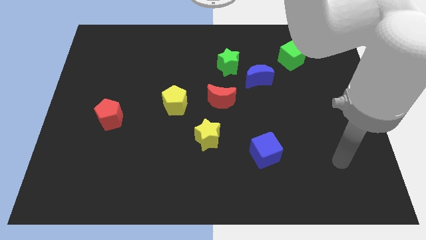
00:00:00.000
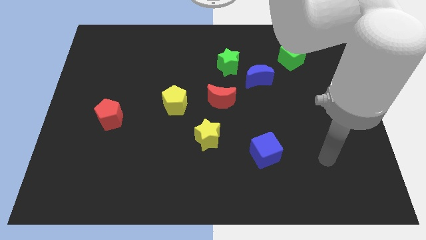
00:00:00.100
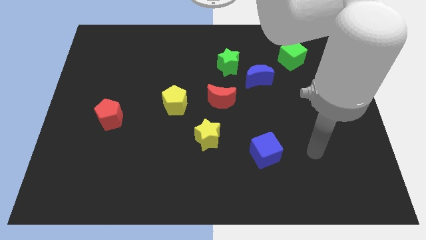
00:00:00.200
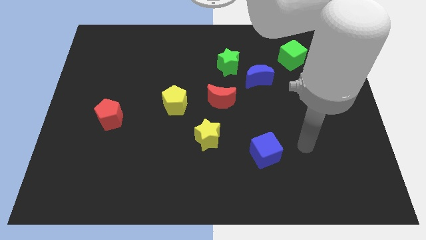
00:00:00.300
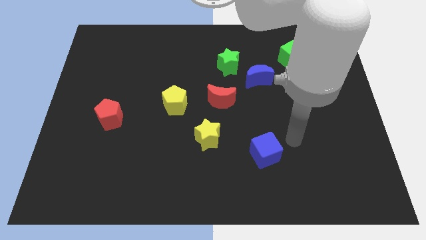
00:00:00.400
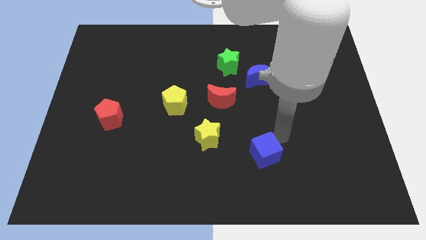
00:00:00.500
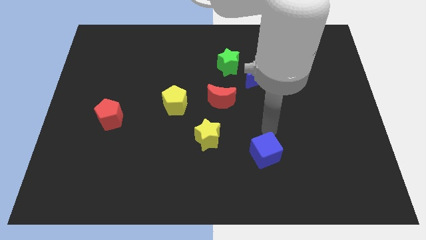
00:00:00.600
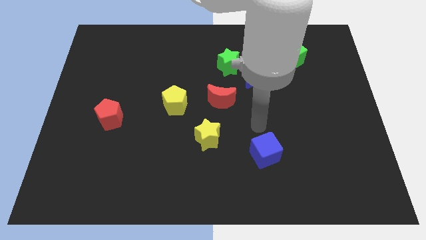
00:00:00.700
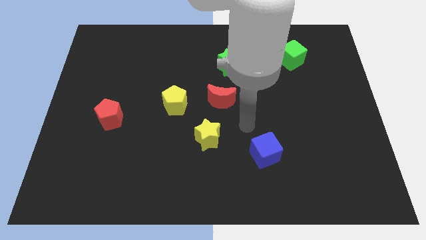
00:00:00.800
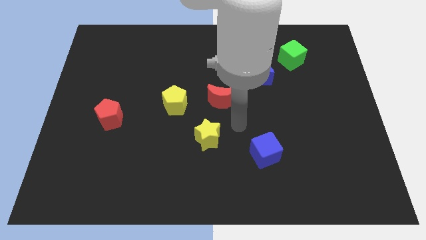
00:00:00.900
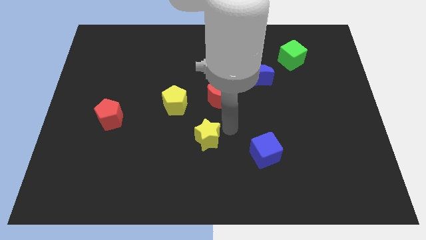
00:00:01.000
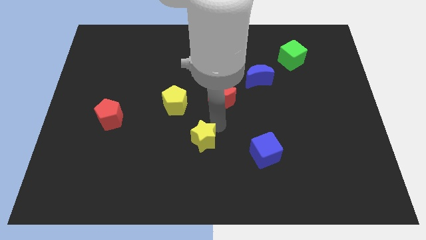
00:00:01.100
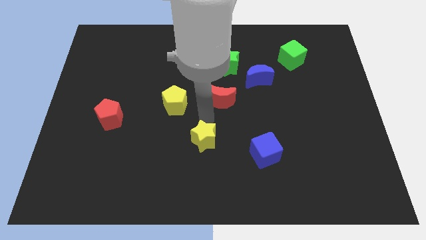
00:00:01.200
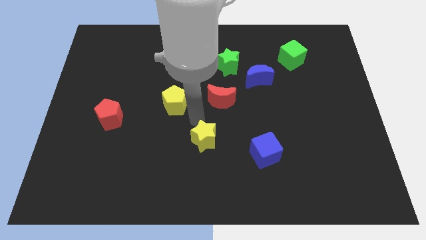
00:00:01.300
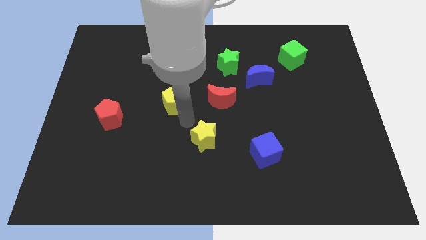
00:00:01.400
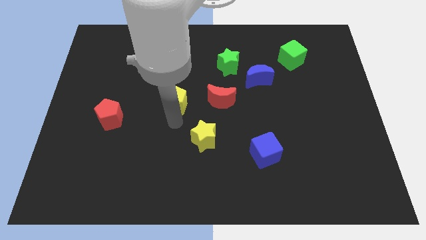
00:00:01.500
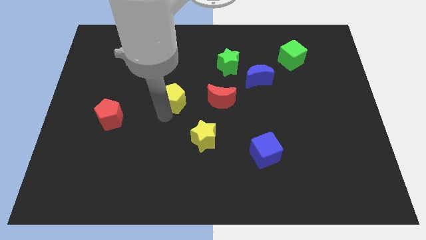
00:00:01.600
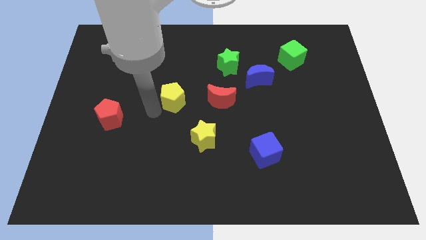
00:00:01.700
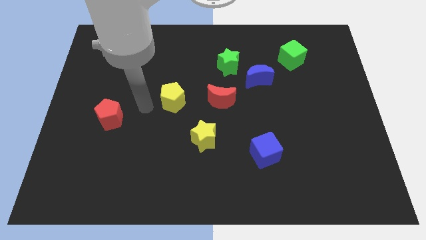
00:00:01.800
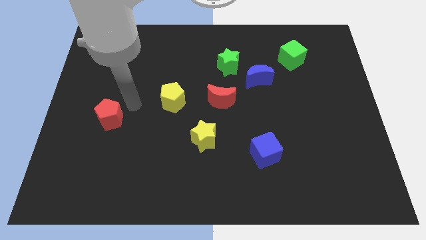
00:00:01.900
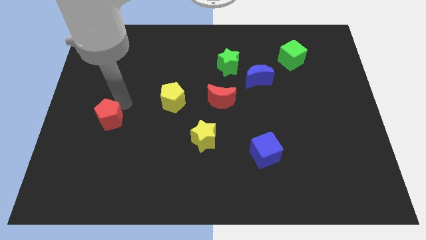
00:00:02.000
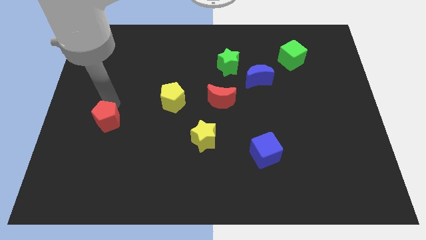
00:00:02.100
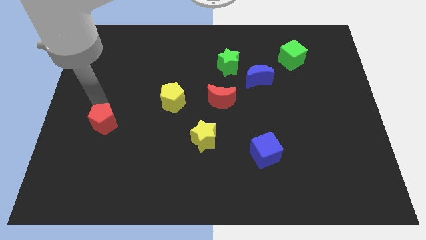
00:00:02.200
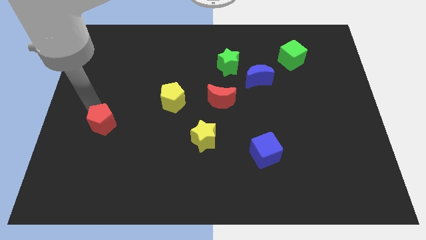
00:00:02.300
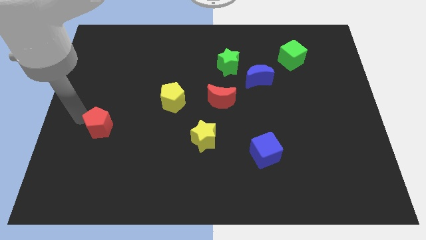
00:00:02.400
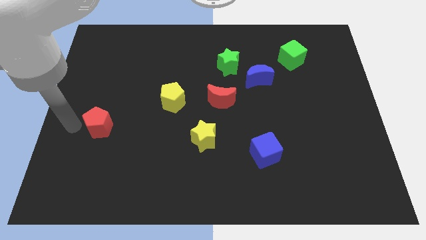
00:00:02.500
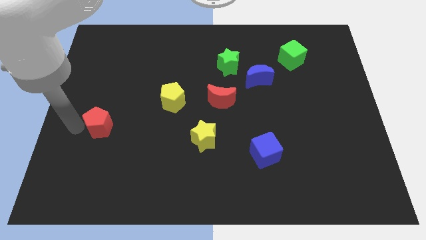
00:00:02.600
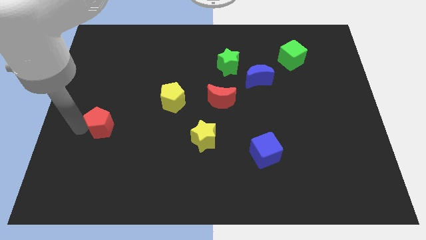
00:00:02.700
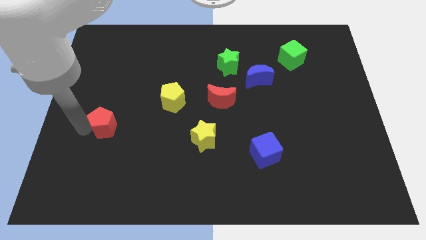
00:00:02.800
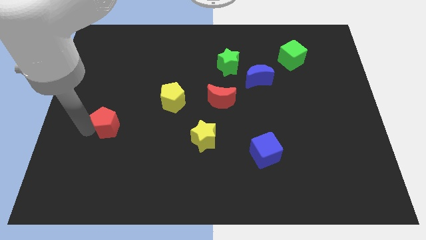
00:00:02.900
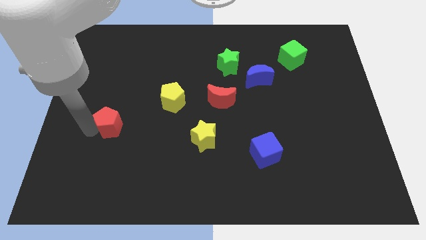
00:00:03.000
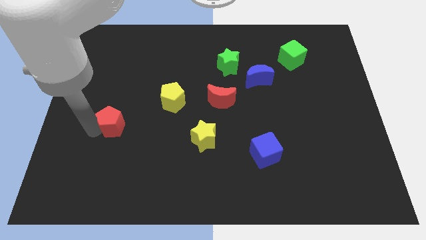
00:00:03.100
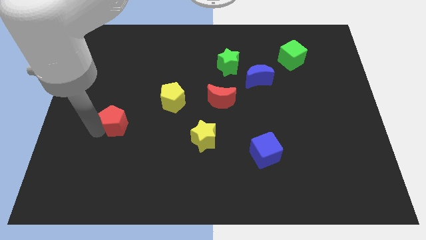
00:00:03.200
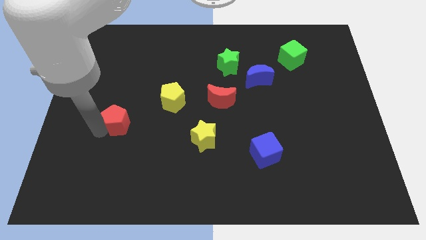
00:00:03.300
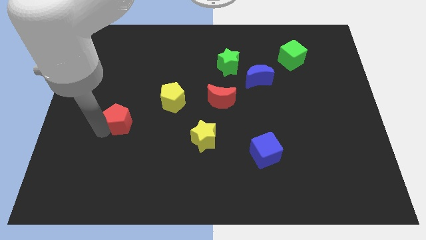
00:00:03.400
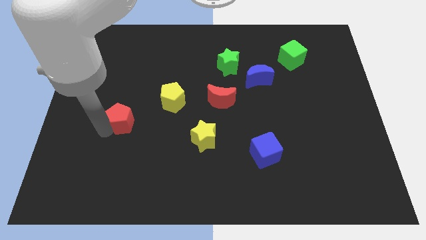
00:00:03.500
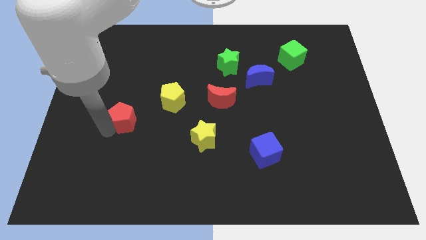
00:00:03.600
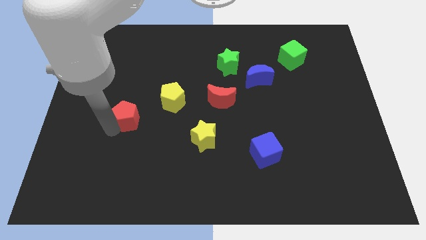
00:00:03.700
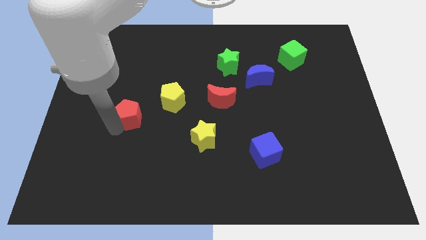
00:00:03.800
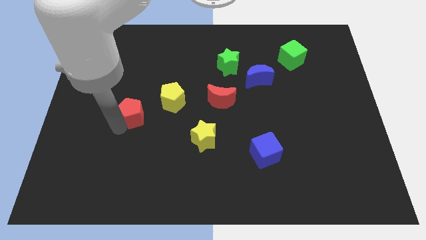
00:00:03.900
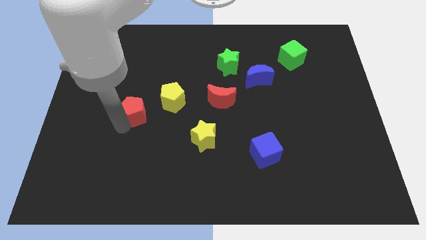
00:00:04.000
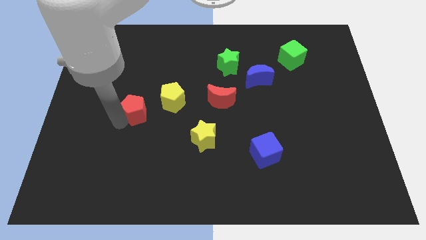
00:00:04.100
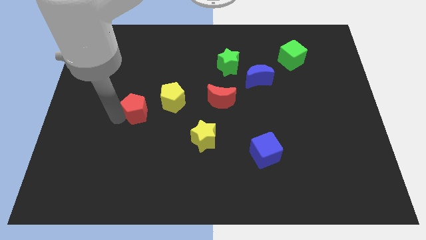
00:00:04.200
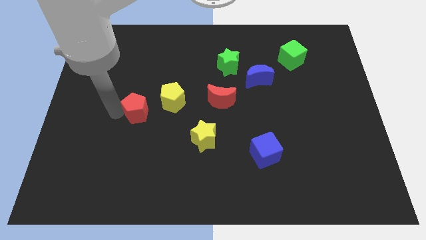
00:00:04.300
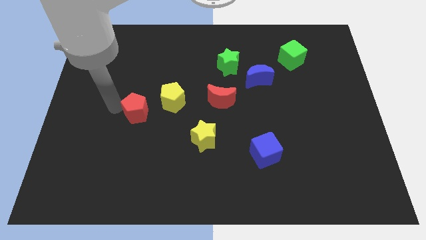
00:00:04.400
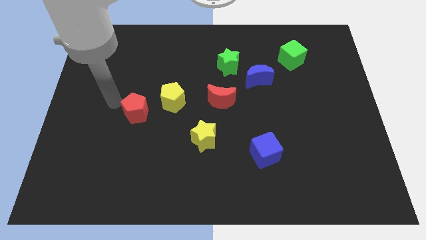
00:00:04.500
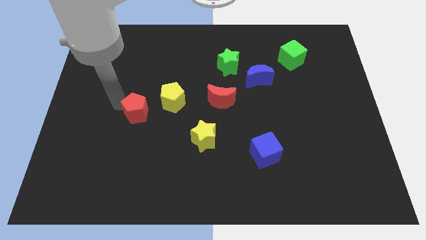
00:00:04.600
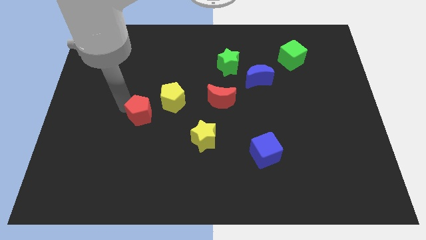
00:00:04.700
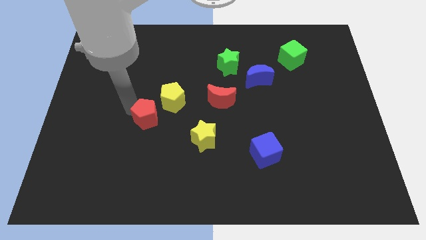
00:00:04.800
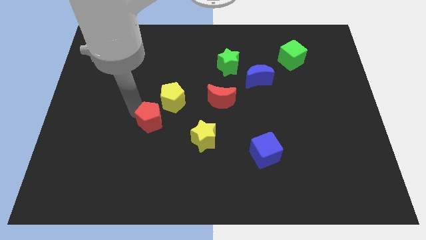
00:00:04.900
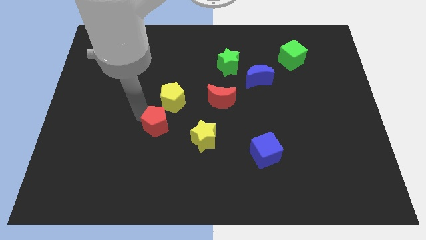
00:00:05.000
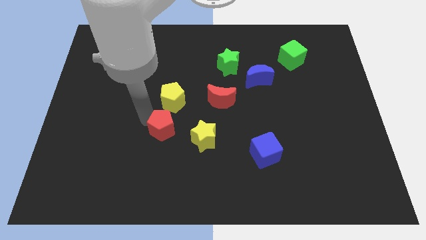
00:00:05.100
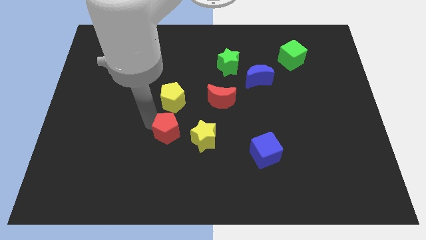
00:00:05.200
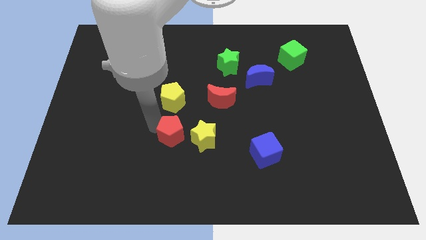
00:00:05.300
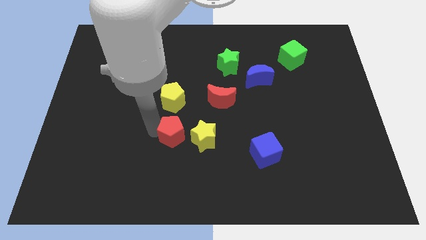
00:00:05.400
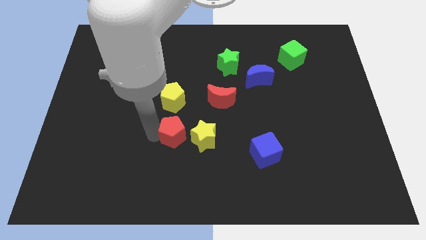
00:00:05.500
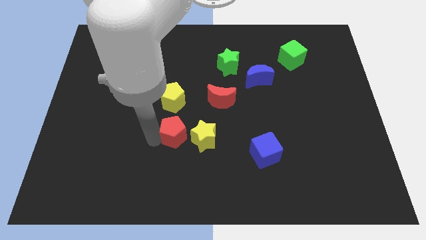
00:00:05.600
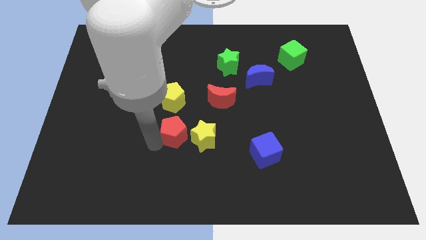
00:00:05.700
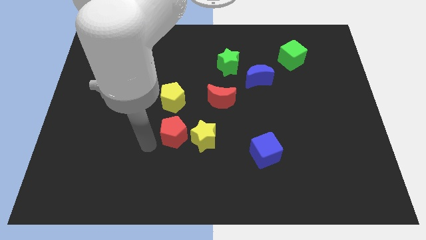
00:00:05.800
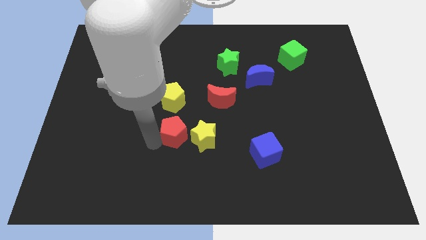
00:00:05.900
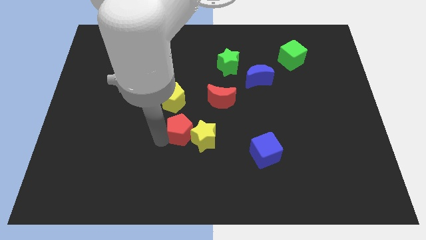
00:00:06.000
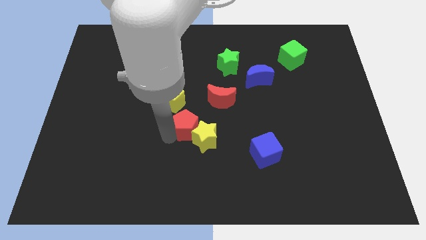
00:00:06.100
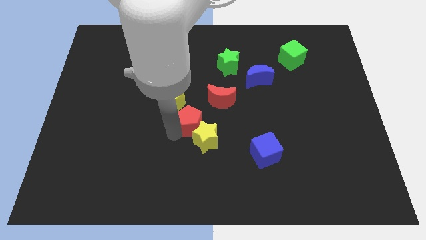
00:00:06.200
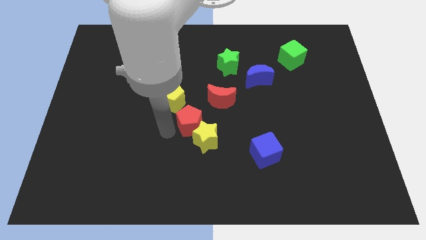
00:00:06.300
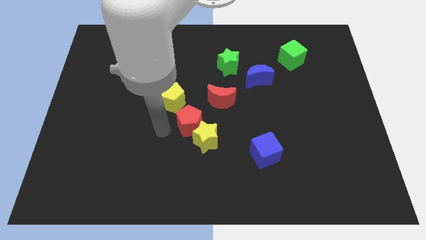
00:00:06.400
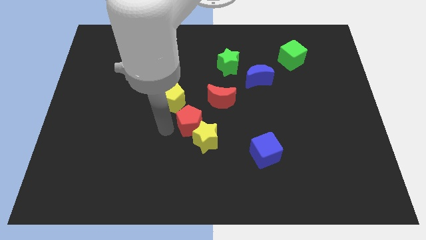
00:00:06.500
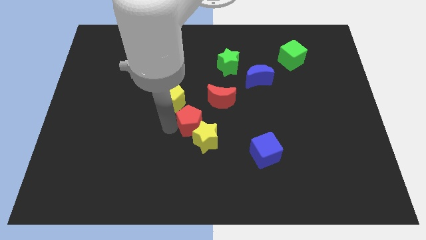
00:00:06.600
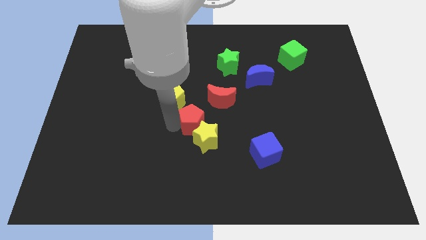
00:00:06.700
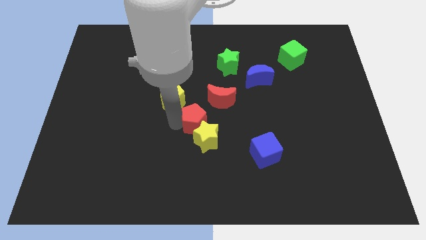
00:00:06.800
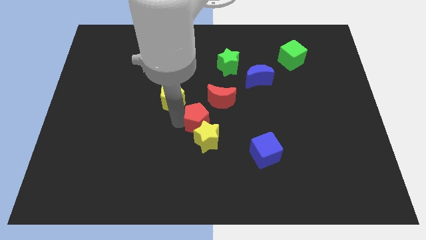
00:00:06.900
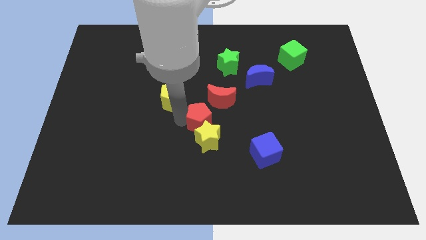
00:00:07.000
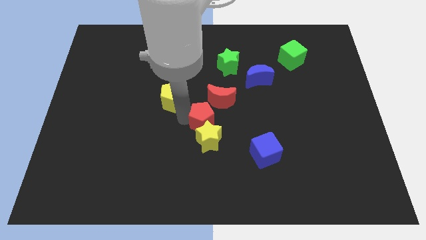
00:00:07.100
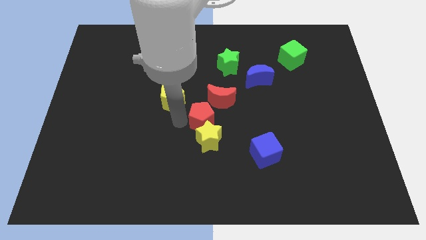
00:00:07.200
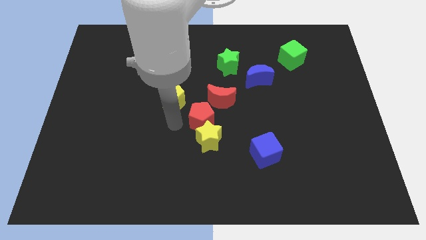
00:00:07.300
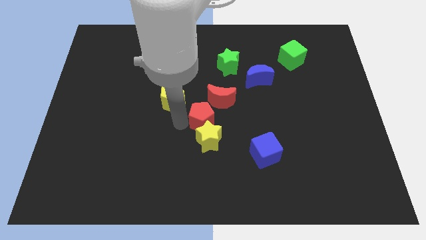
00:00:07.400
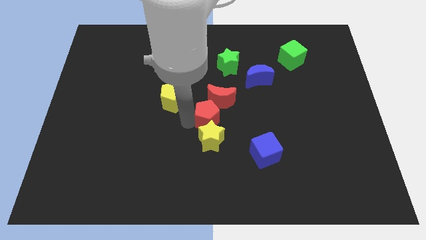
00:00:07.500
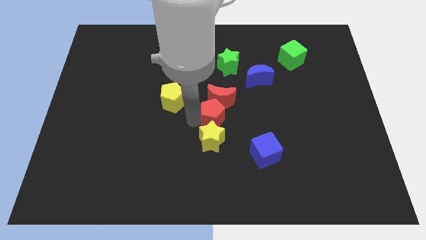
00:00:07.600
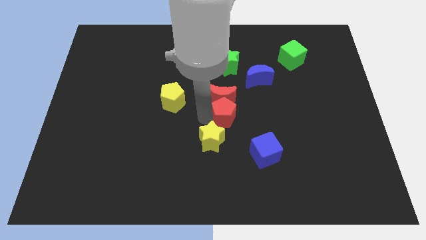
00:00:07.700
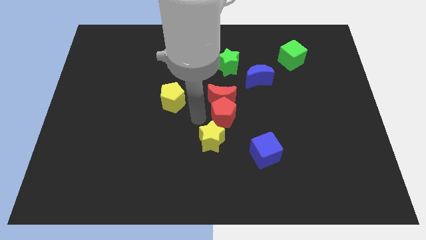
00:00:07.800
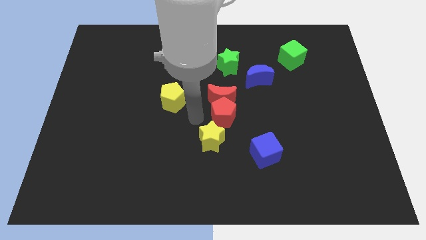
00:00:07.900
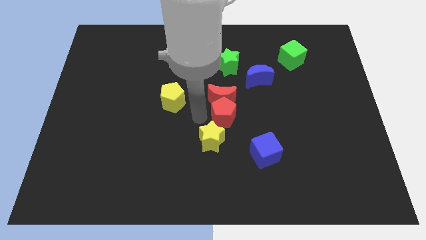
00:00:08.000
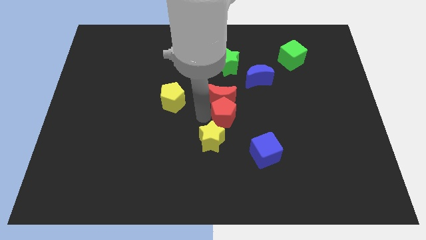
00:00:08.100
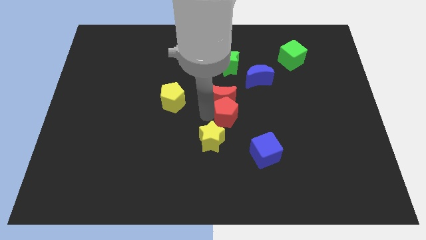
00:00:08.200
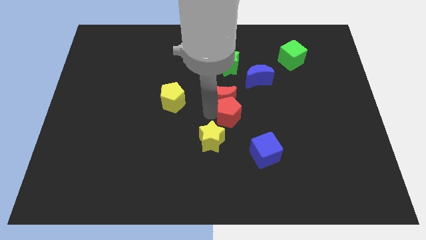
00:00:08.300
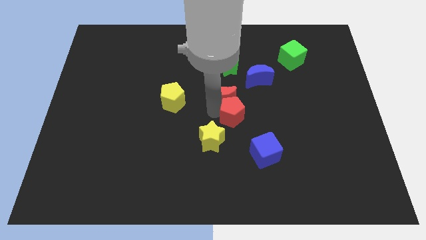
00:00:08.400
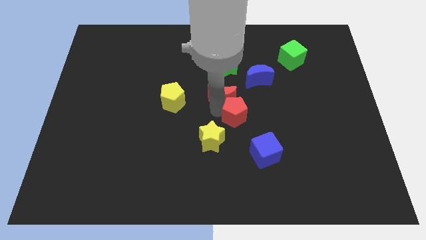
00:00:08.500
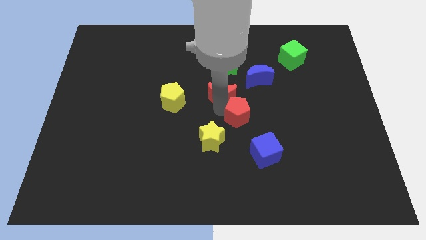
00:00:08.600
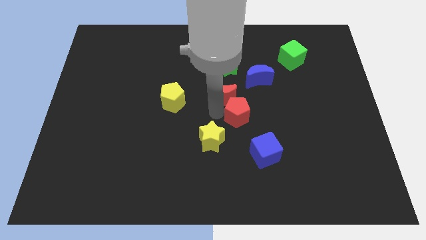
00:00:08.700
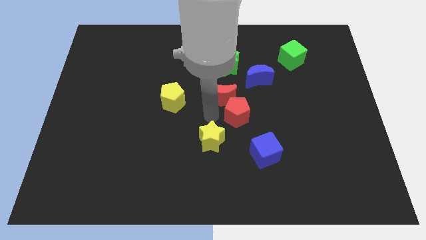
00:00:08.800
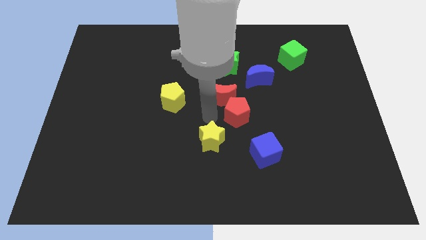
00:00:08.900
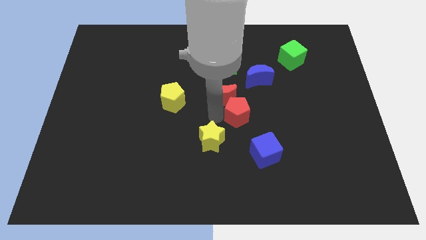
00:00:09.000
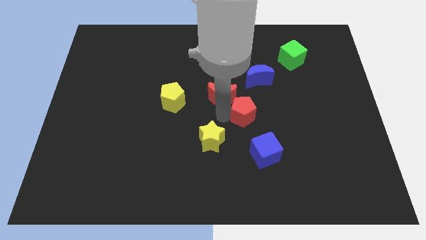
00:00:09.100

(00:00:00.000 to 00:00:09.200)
put the red pentagon to the bottom side of the blue moon
